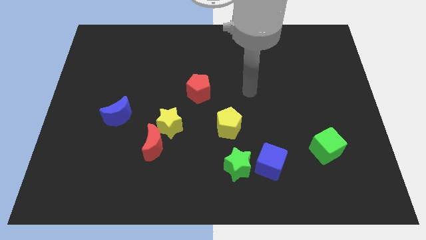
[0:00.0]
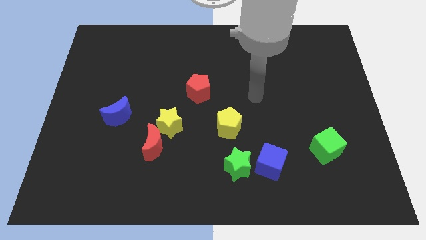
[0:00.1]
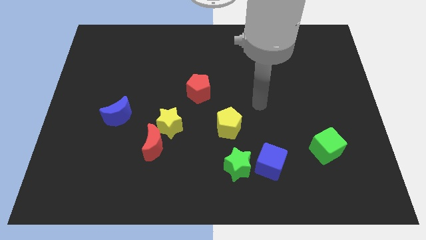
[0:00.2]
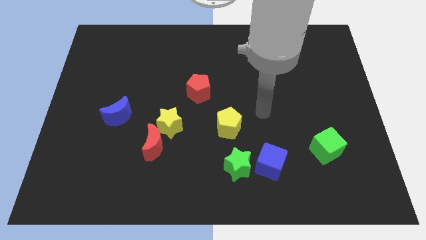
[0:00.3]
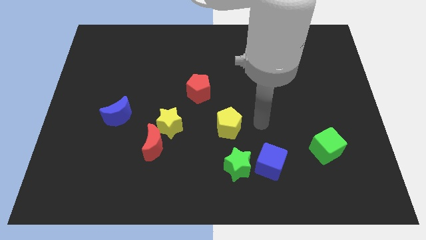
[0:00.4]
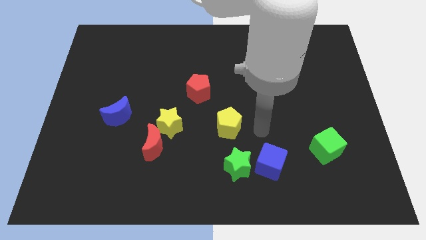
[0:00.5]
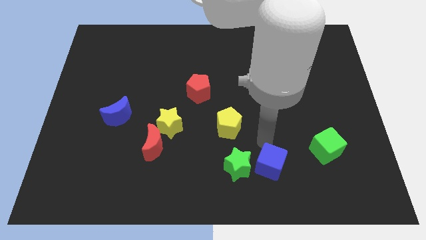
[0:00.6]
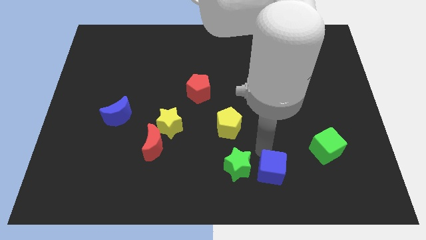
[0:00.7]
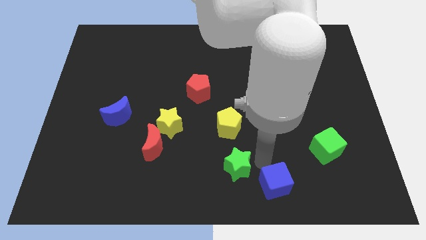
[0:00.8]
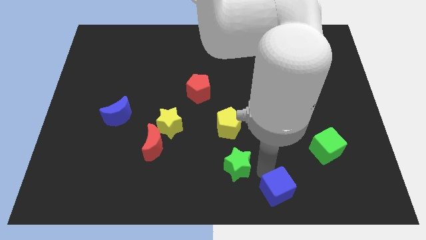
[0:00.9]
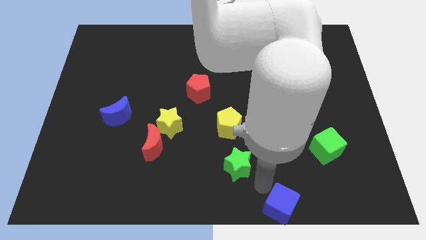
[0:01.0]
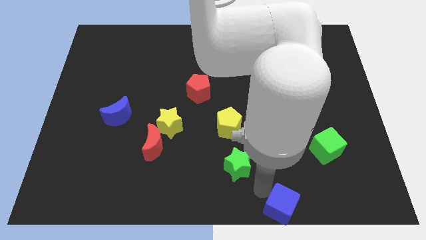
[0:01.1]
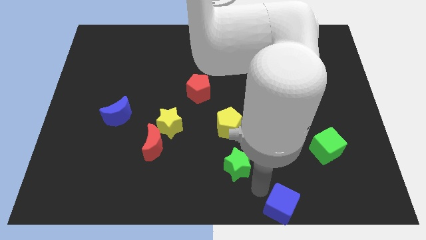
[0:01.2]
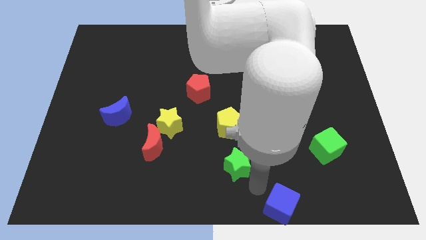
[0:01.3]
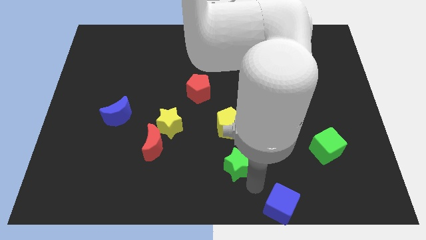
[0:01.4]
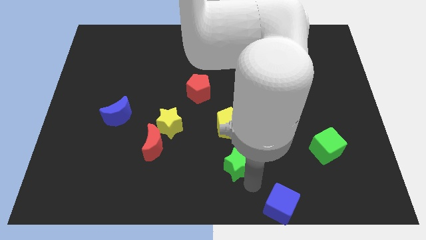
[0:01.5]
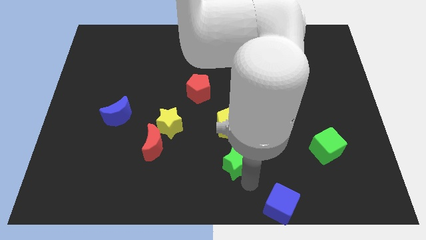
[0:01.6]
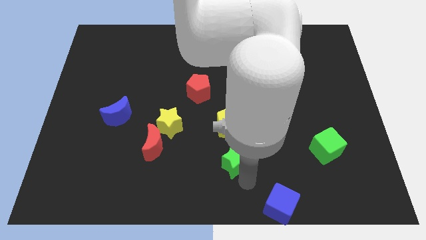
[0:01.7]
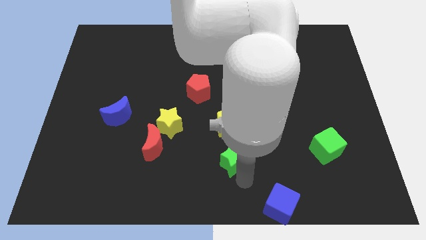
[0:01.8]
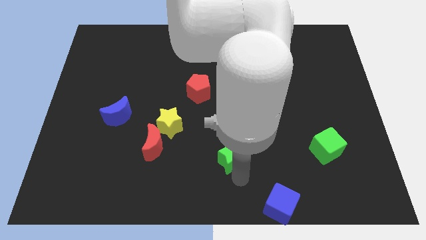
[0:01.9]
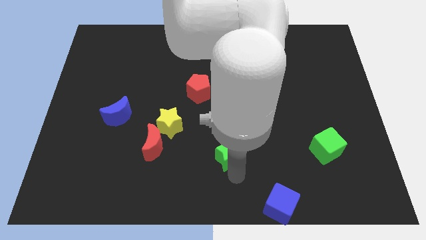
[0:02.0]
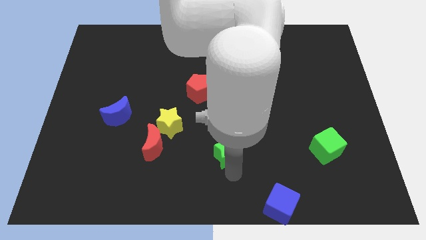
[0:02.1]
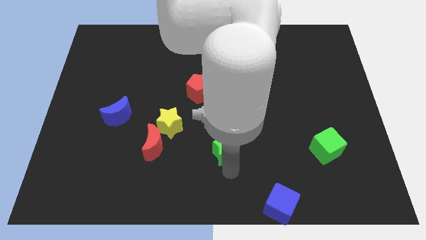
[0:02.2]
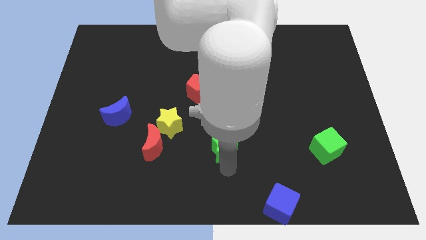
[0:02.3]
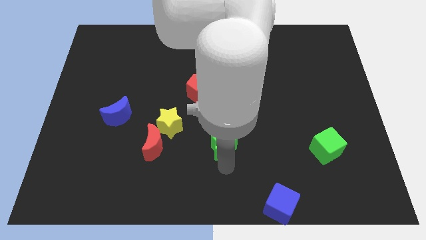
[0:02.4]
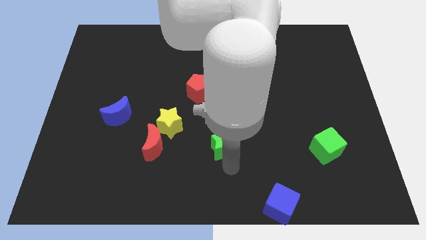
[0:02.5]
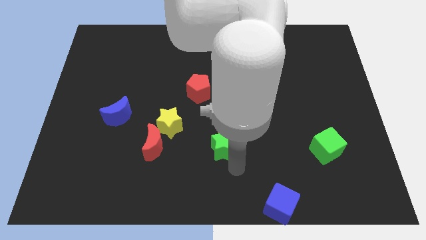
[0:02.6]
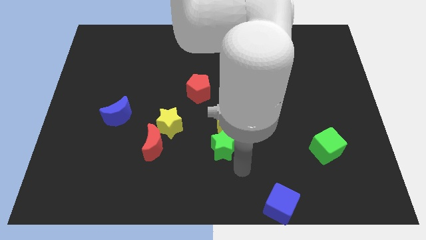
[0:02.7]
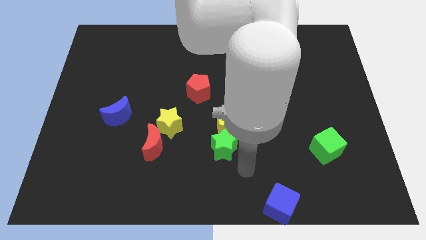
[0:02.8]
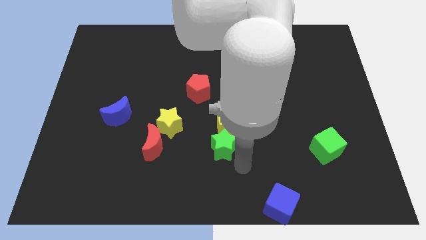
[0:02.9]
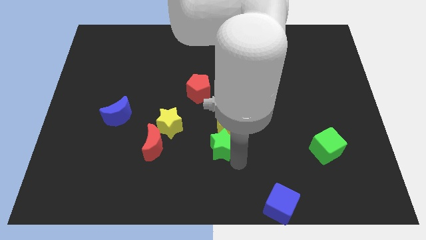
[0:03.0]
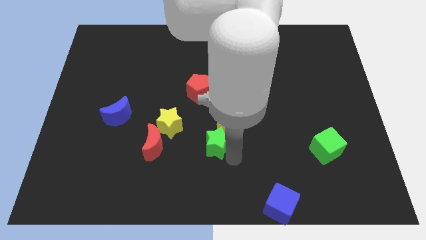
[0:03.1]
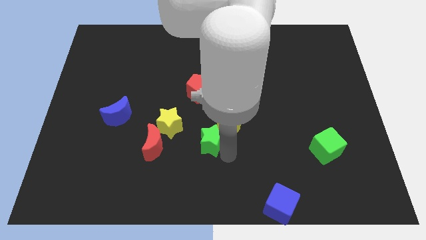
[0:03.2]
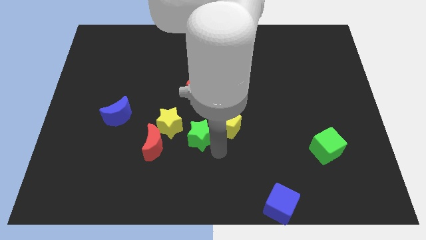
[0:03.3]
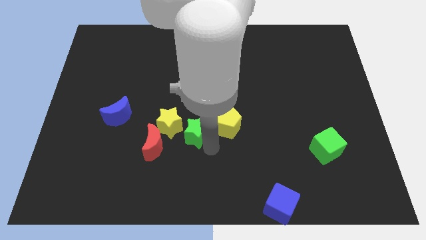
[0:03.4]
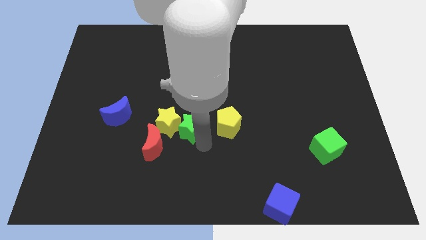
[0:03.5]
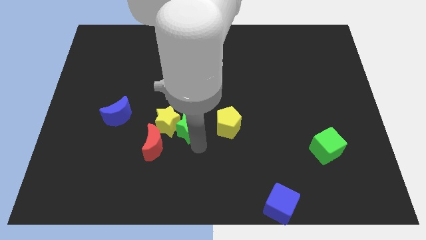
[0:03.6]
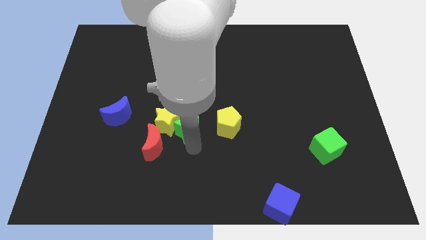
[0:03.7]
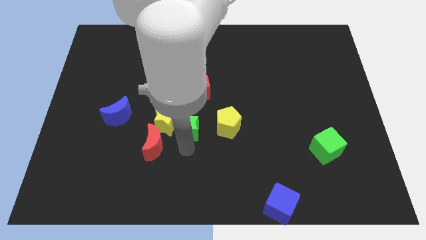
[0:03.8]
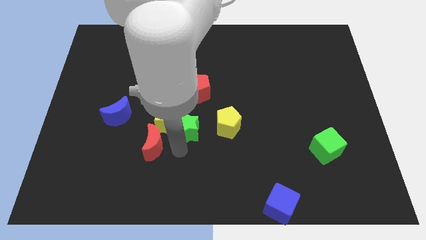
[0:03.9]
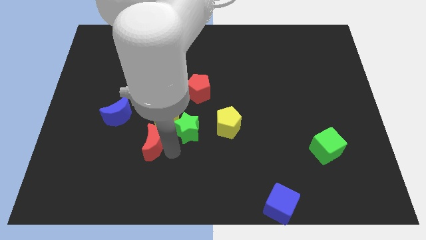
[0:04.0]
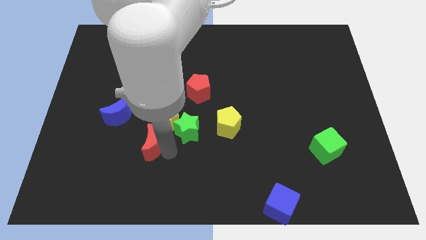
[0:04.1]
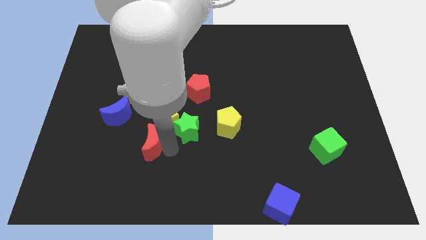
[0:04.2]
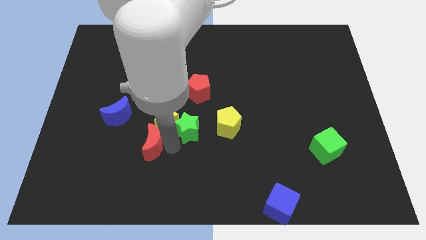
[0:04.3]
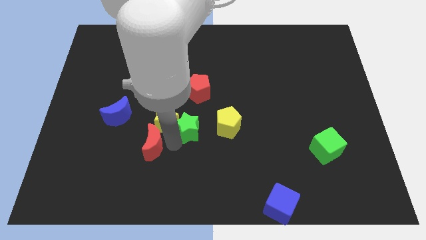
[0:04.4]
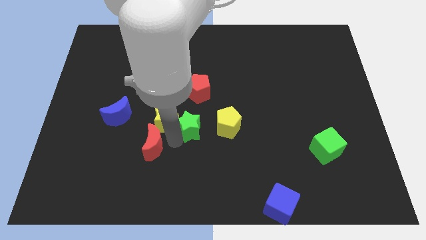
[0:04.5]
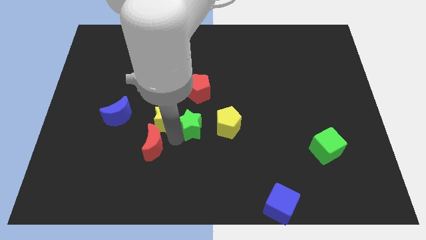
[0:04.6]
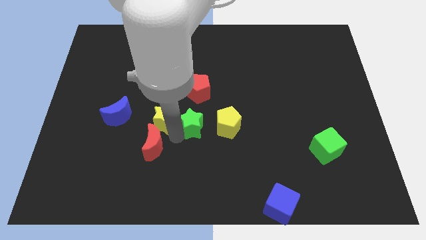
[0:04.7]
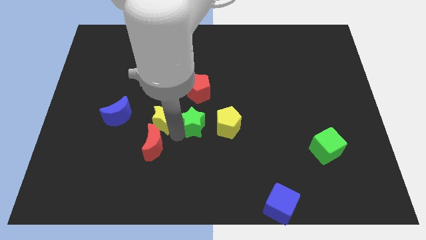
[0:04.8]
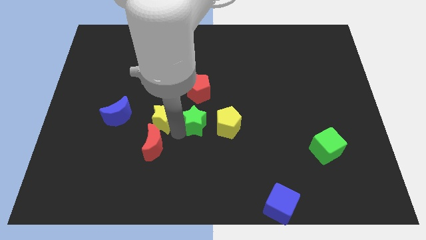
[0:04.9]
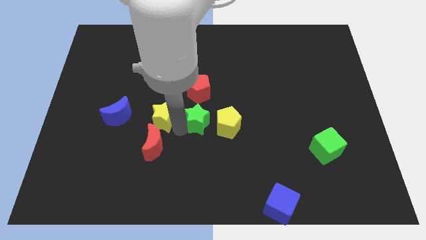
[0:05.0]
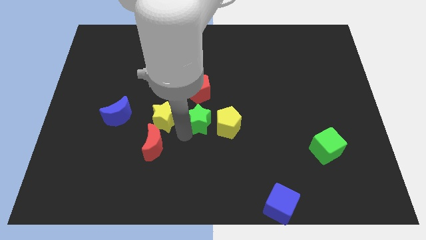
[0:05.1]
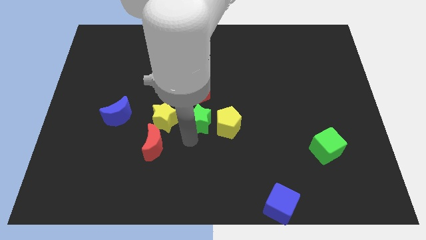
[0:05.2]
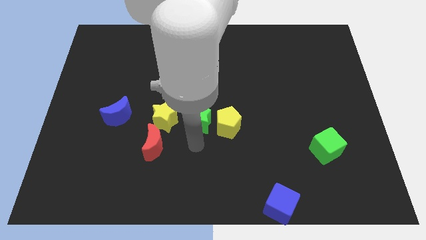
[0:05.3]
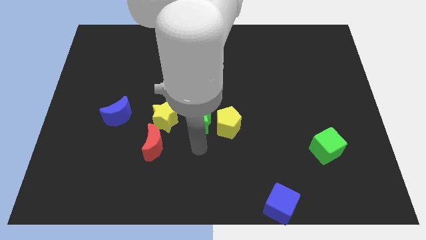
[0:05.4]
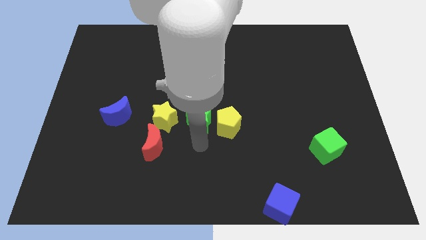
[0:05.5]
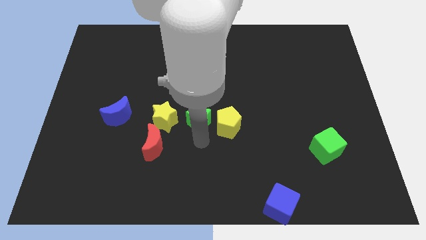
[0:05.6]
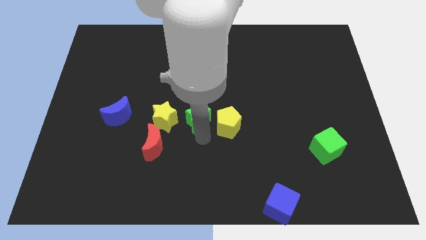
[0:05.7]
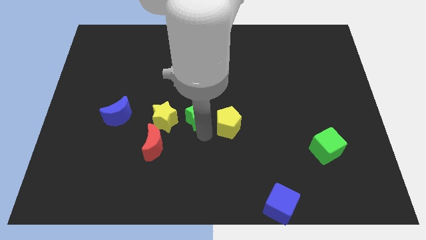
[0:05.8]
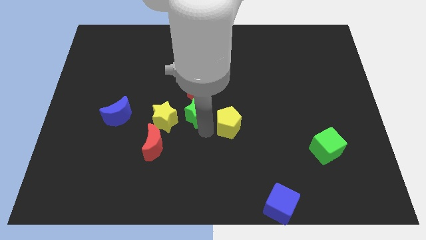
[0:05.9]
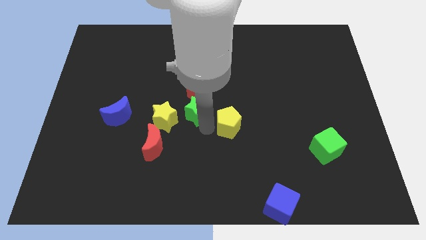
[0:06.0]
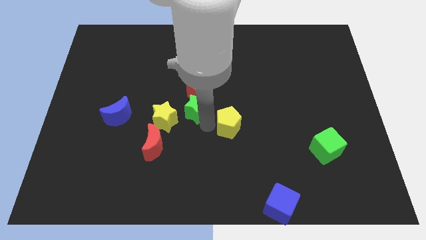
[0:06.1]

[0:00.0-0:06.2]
push the green star to the red pentagon

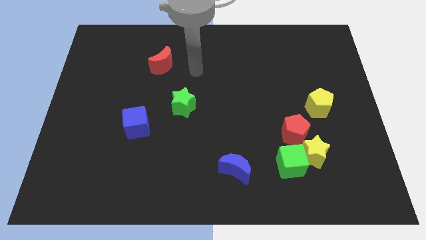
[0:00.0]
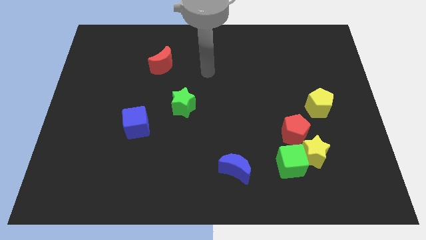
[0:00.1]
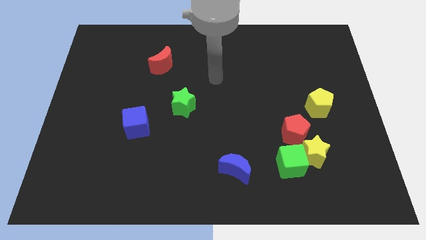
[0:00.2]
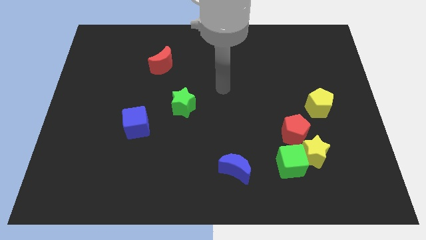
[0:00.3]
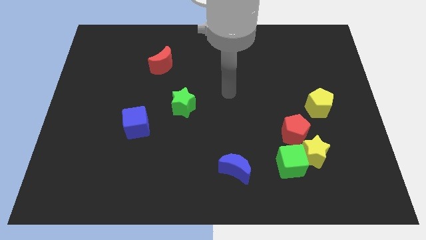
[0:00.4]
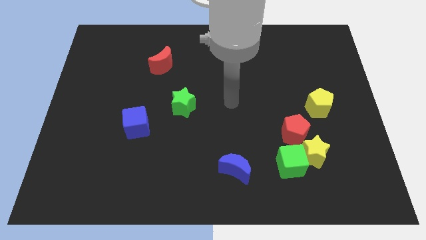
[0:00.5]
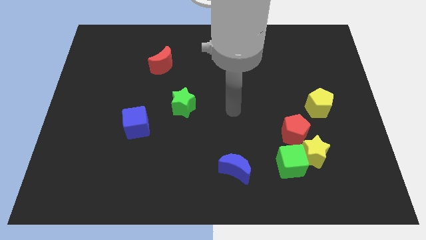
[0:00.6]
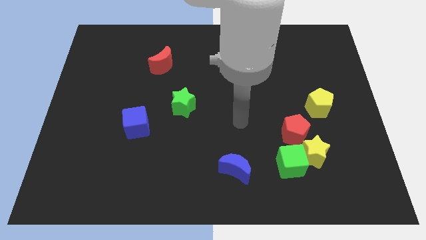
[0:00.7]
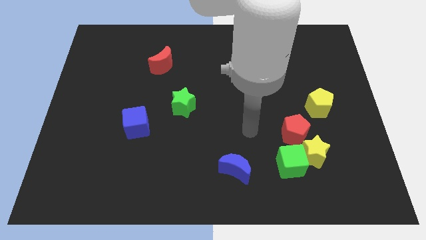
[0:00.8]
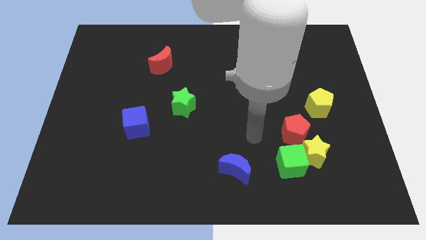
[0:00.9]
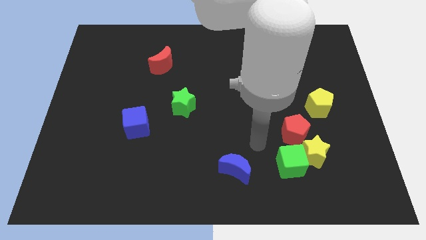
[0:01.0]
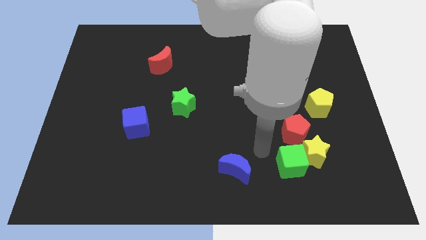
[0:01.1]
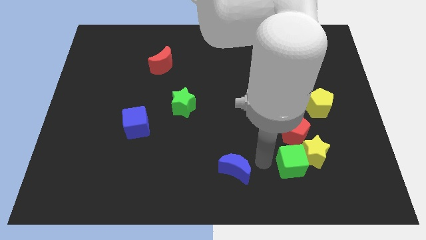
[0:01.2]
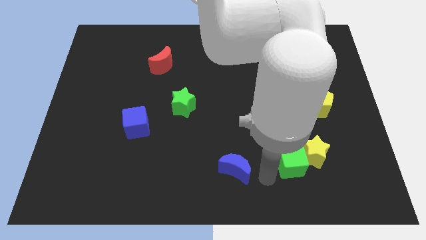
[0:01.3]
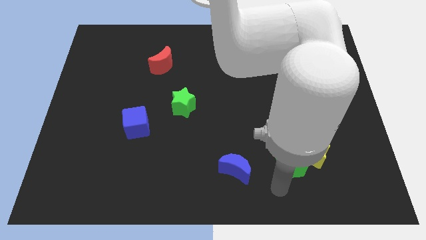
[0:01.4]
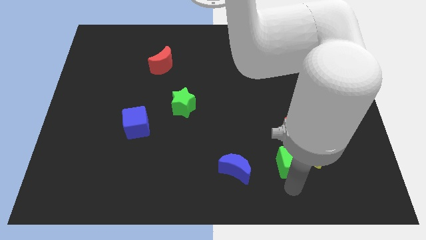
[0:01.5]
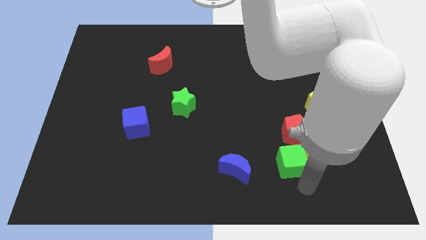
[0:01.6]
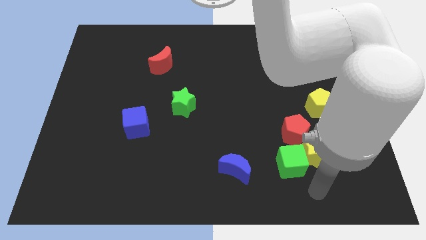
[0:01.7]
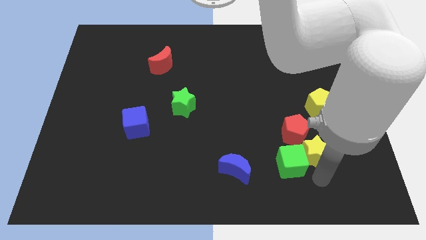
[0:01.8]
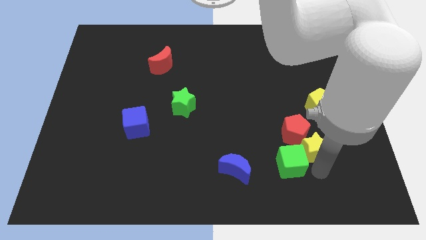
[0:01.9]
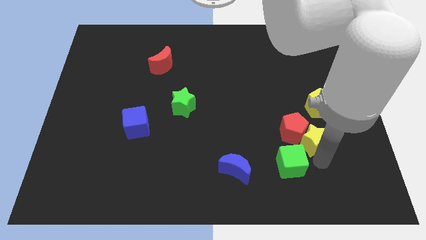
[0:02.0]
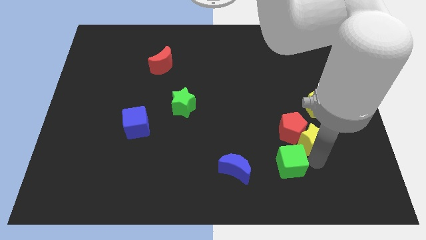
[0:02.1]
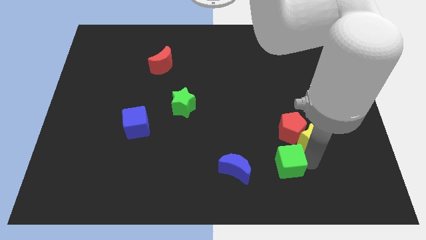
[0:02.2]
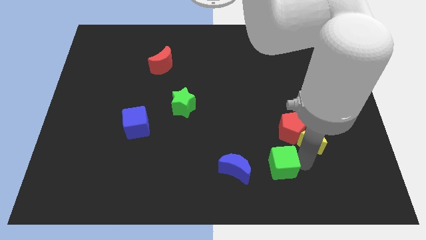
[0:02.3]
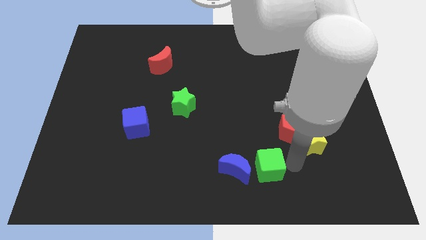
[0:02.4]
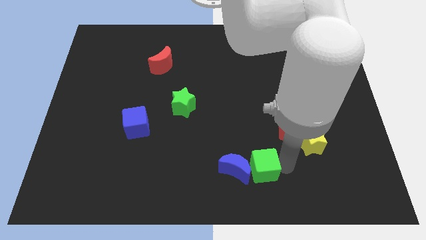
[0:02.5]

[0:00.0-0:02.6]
slide the green cube to the blue moon
